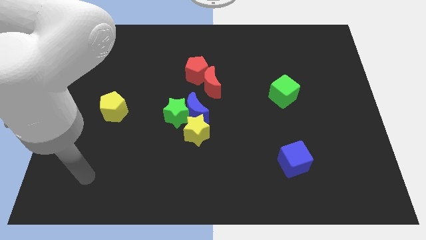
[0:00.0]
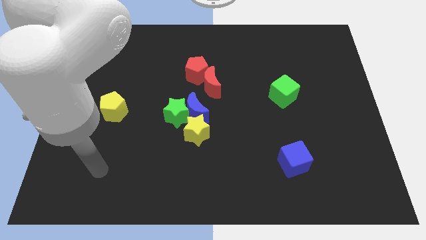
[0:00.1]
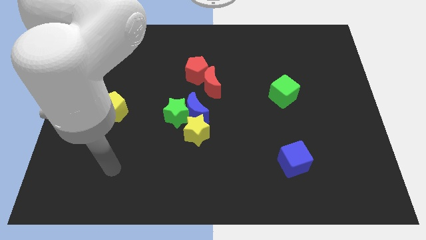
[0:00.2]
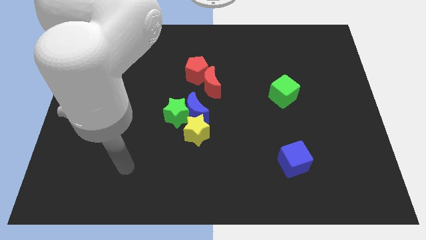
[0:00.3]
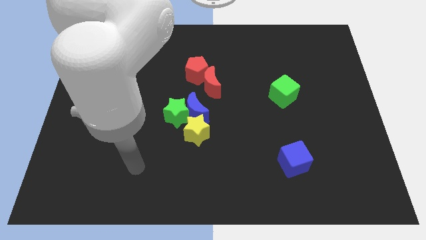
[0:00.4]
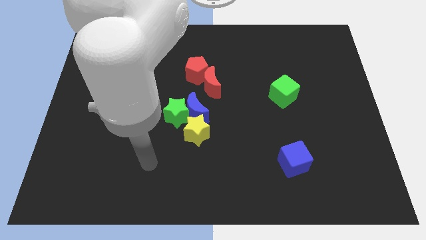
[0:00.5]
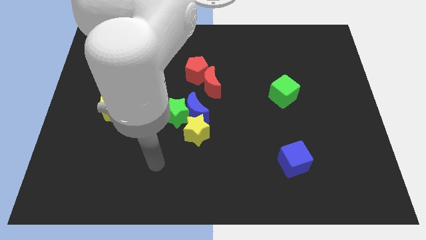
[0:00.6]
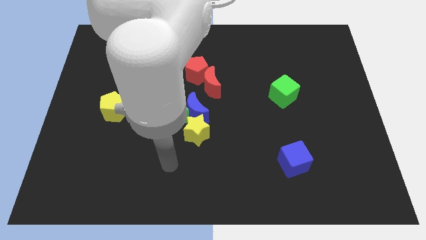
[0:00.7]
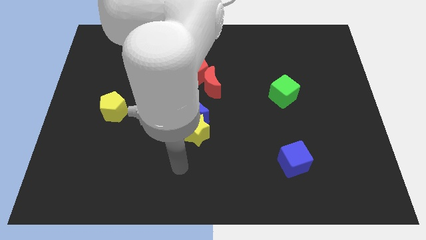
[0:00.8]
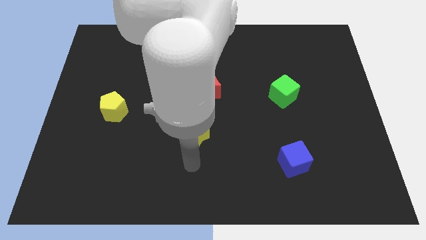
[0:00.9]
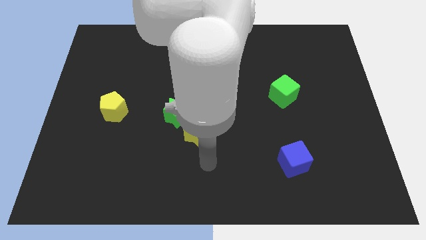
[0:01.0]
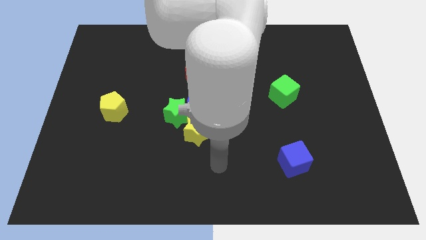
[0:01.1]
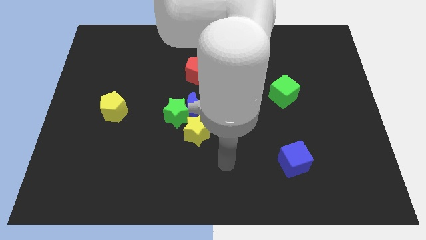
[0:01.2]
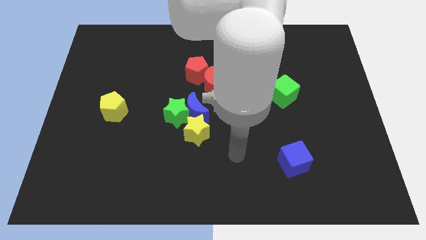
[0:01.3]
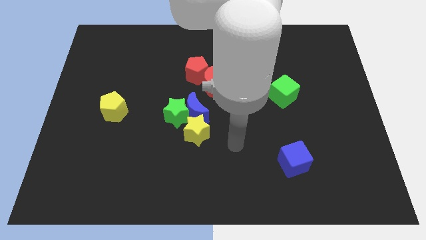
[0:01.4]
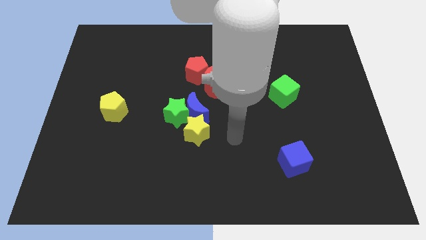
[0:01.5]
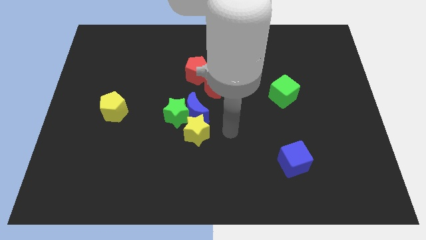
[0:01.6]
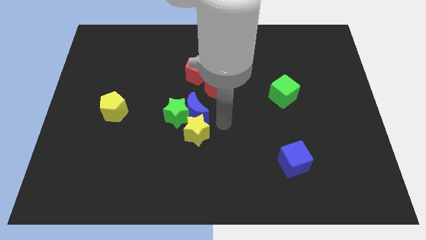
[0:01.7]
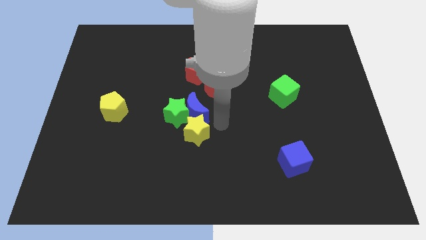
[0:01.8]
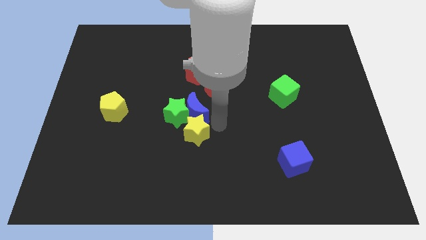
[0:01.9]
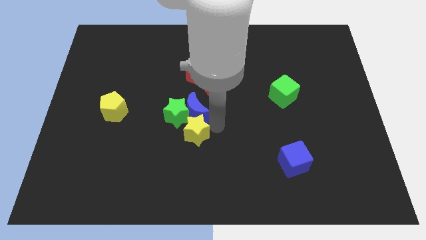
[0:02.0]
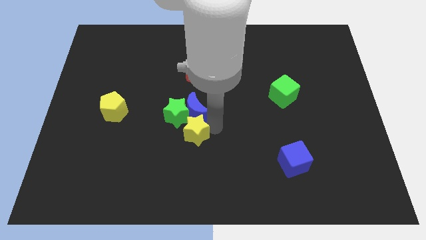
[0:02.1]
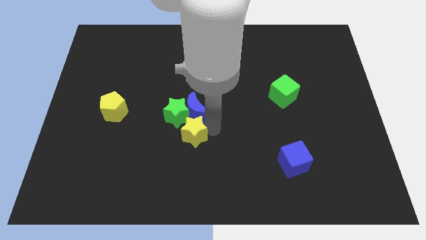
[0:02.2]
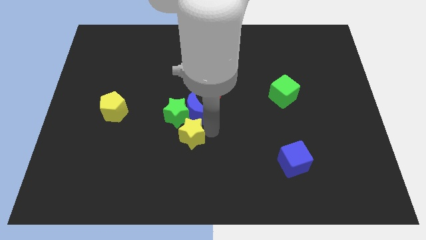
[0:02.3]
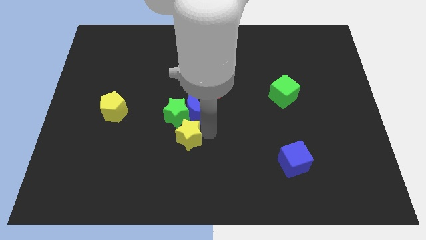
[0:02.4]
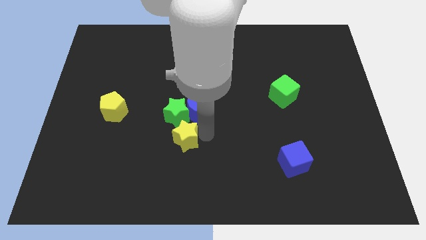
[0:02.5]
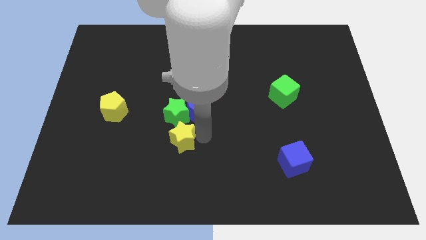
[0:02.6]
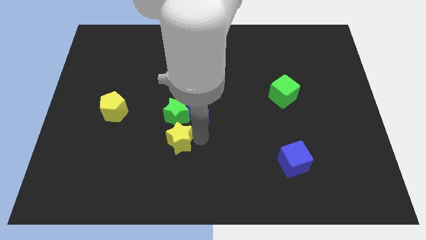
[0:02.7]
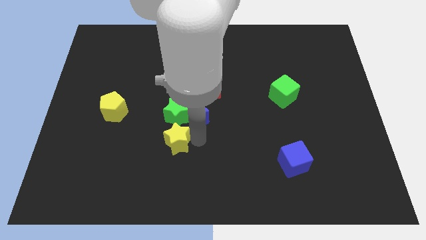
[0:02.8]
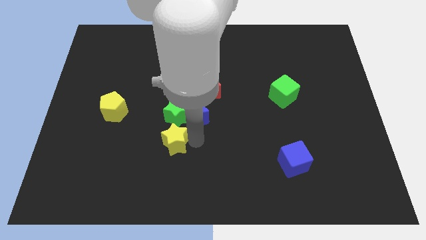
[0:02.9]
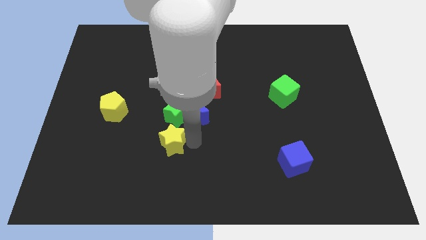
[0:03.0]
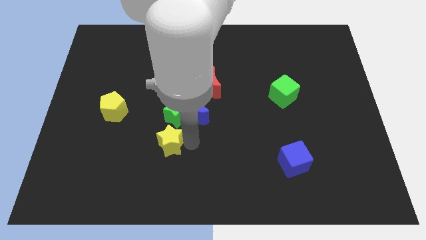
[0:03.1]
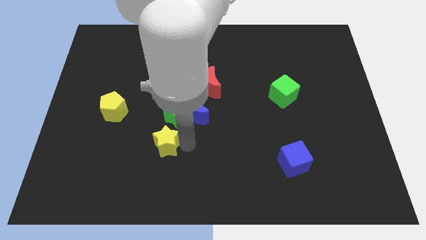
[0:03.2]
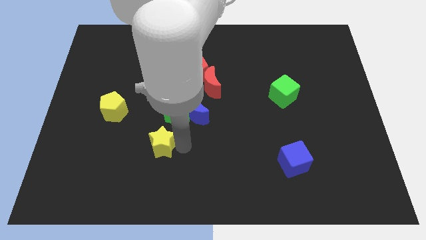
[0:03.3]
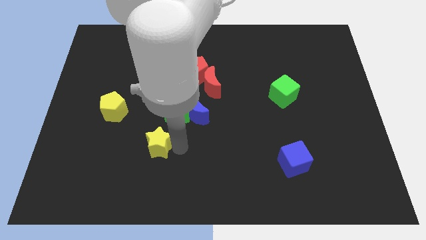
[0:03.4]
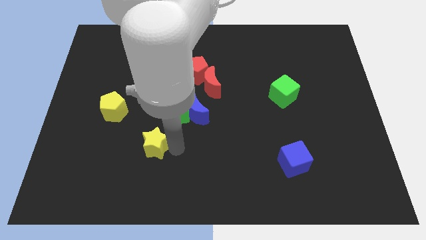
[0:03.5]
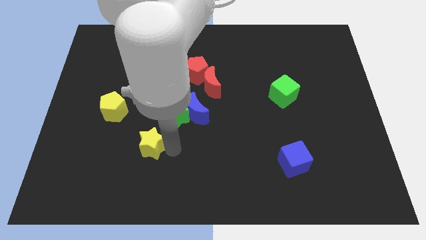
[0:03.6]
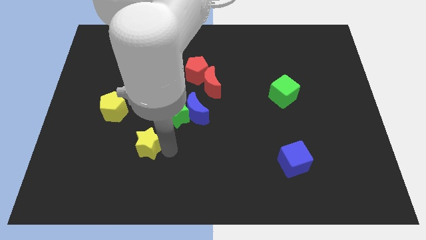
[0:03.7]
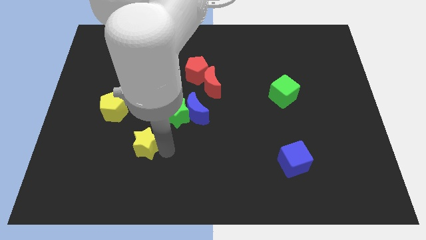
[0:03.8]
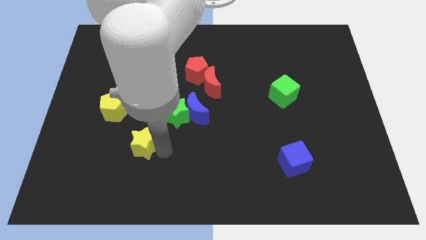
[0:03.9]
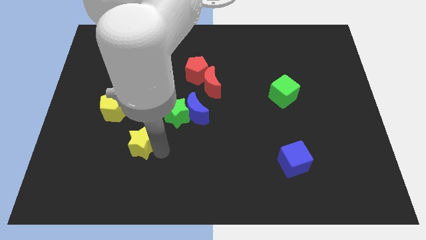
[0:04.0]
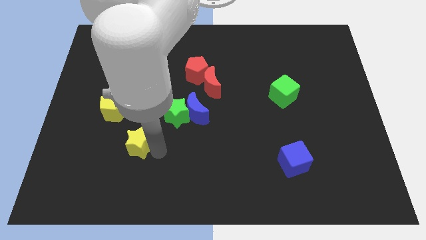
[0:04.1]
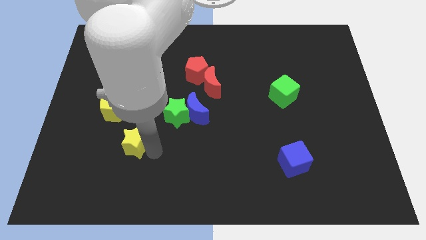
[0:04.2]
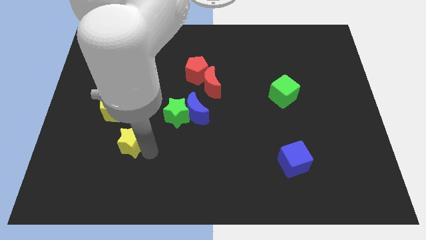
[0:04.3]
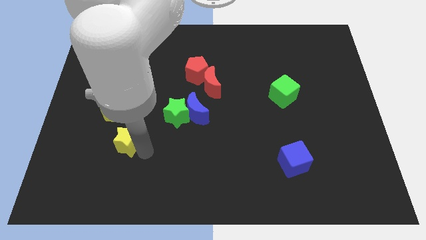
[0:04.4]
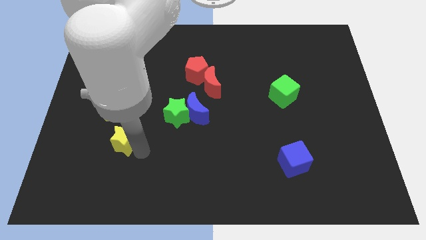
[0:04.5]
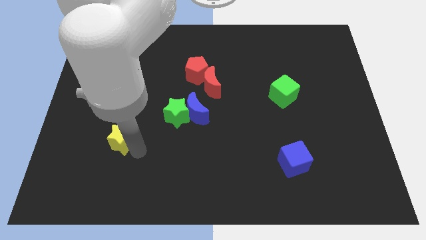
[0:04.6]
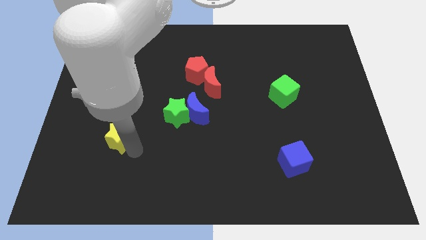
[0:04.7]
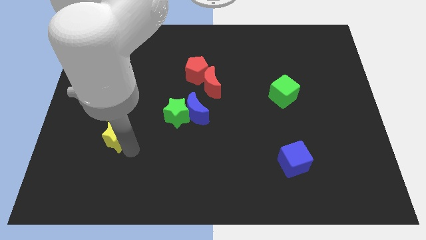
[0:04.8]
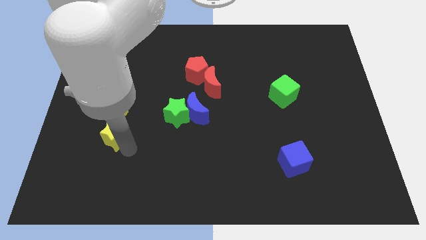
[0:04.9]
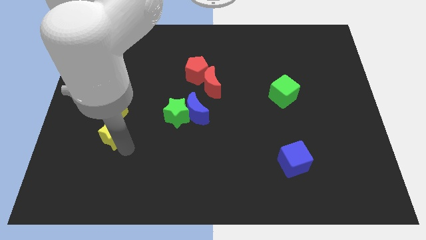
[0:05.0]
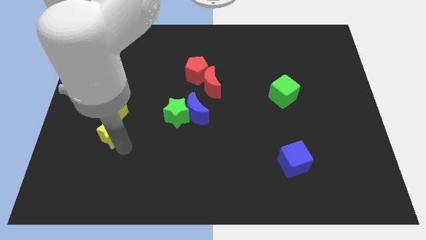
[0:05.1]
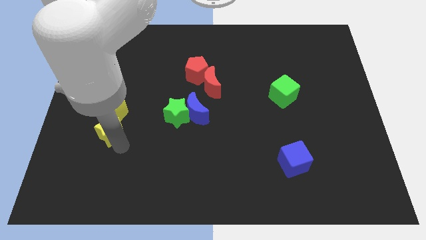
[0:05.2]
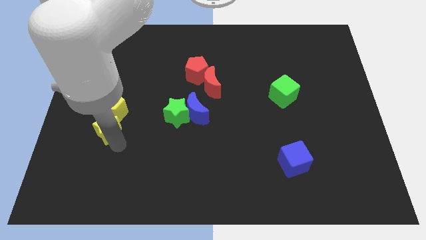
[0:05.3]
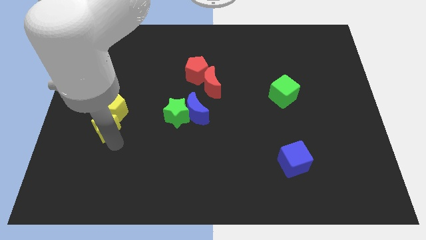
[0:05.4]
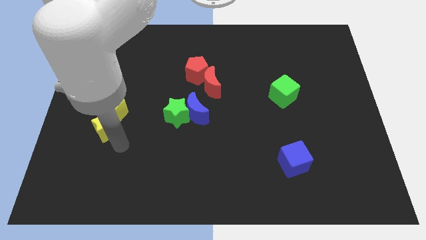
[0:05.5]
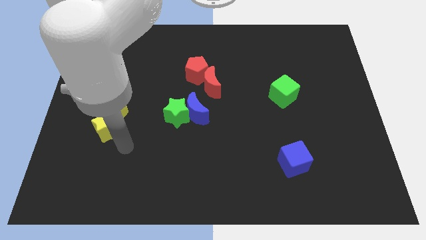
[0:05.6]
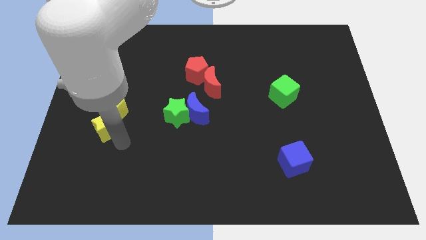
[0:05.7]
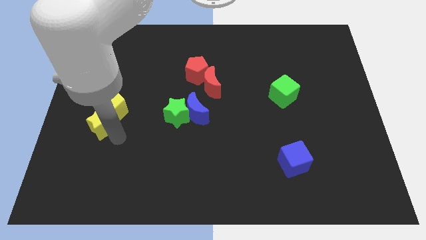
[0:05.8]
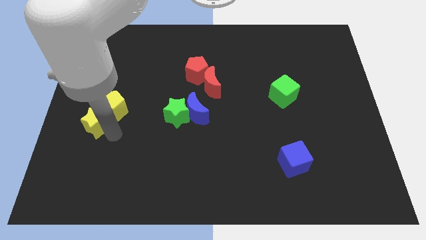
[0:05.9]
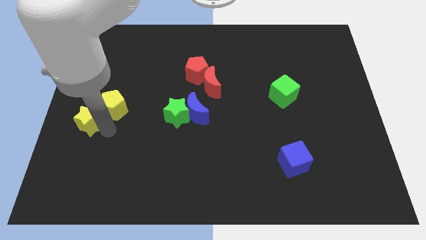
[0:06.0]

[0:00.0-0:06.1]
move the yellow star to the left side

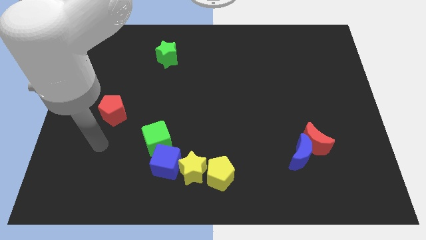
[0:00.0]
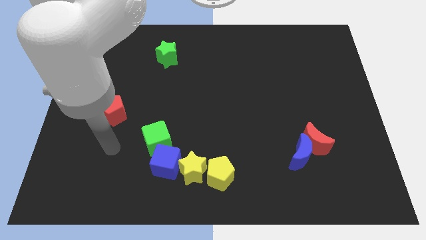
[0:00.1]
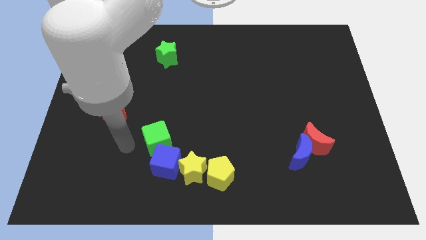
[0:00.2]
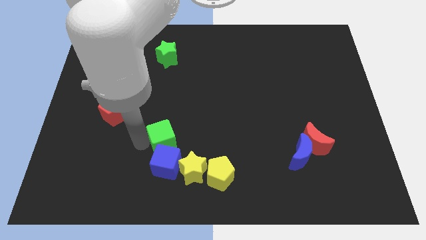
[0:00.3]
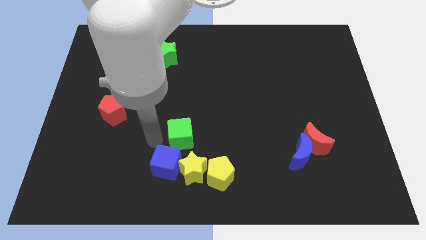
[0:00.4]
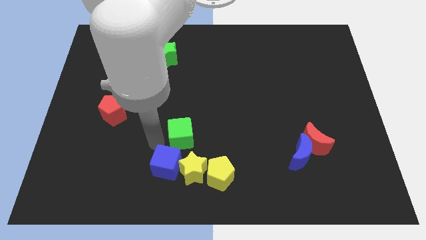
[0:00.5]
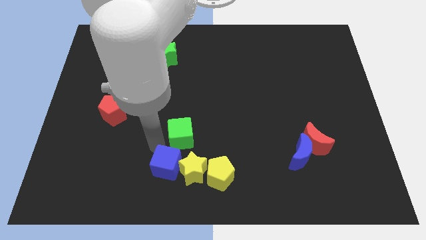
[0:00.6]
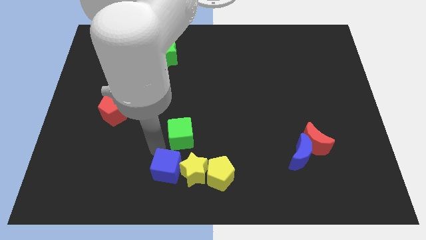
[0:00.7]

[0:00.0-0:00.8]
push the blue cube to the bottom side

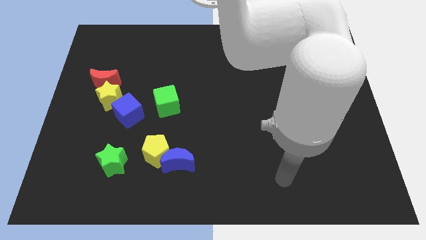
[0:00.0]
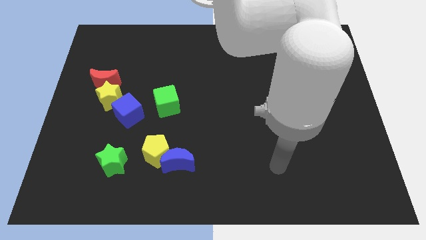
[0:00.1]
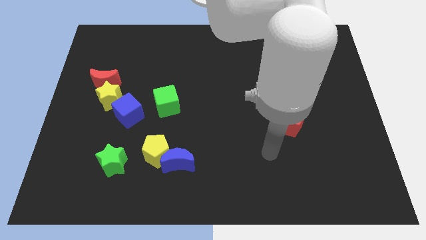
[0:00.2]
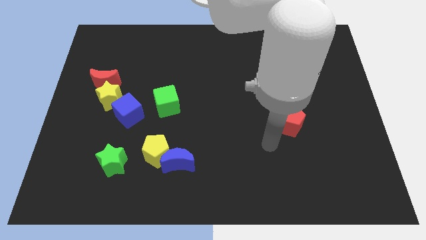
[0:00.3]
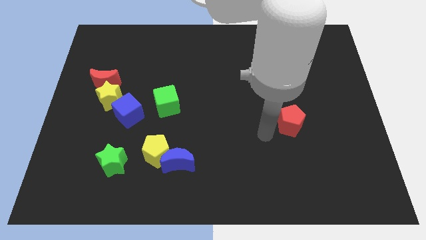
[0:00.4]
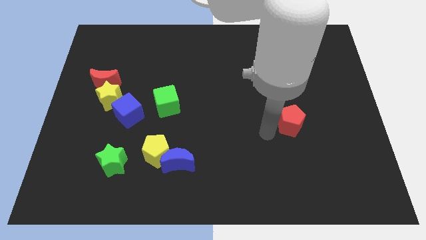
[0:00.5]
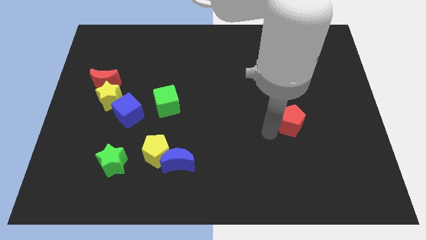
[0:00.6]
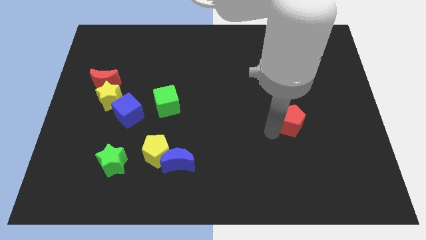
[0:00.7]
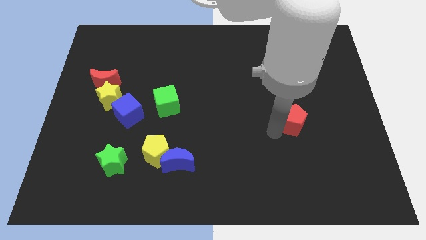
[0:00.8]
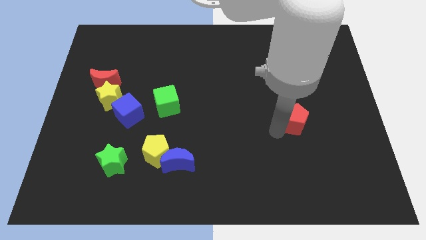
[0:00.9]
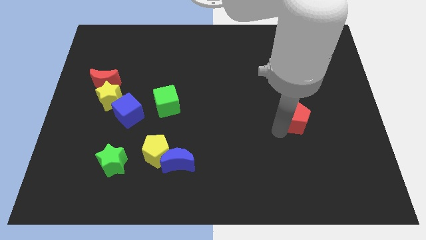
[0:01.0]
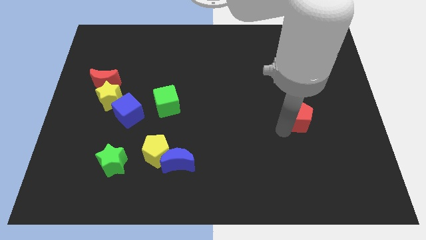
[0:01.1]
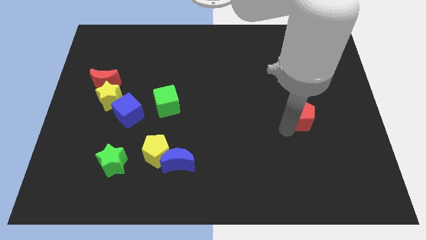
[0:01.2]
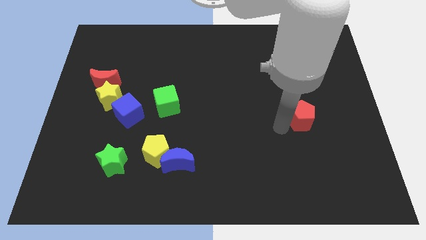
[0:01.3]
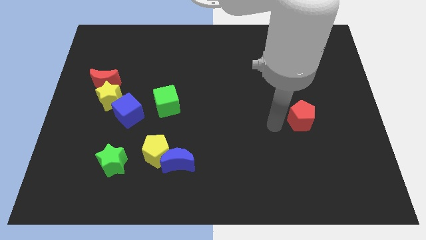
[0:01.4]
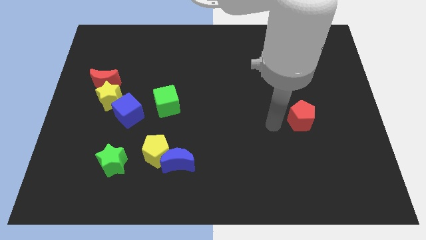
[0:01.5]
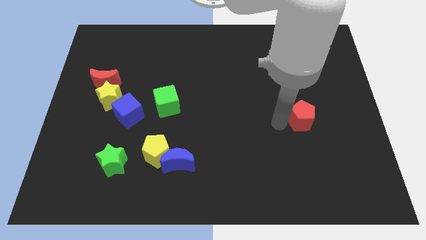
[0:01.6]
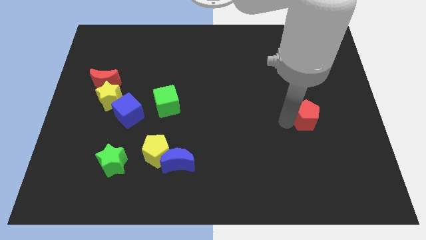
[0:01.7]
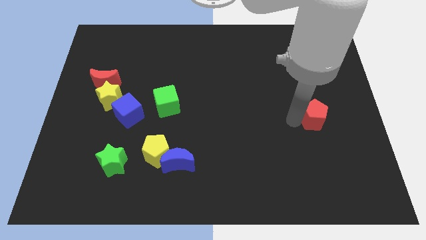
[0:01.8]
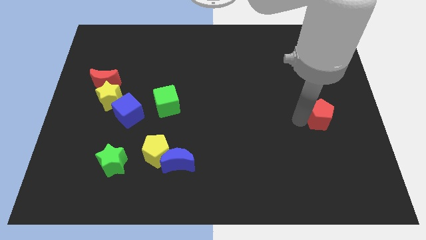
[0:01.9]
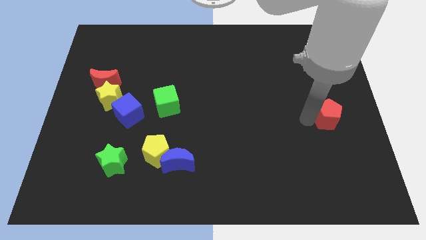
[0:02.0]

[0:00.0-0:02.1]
put the red pentagon to the right side of the board
